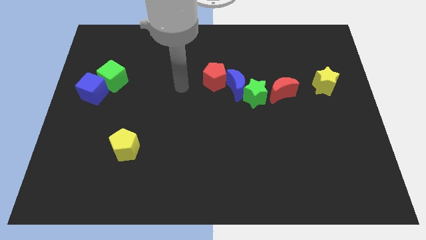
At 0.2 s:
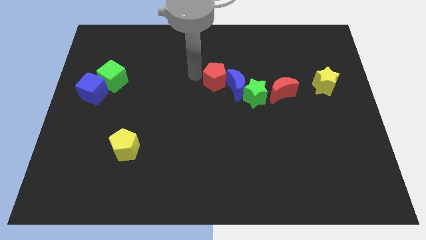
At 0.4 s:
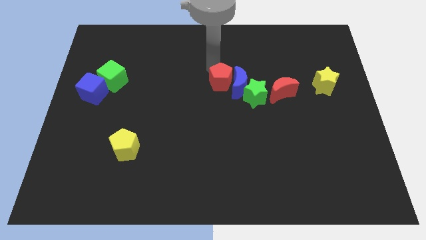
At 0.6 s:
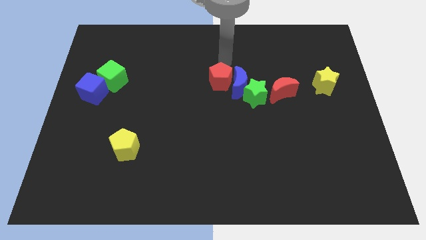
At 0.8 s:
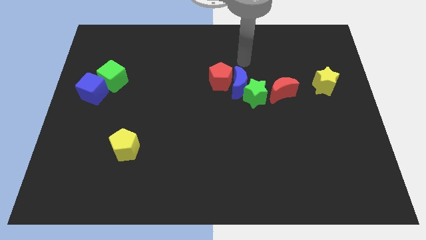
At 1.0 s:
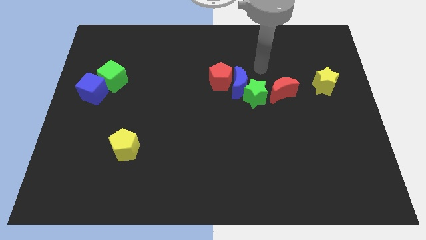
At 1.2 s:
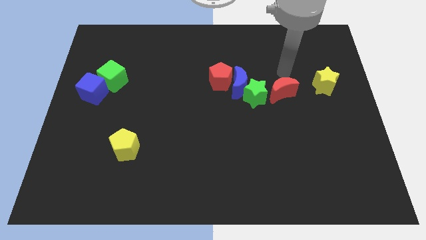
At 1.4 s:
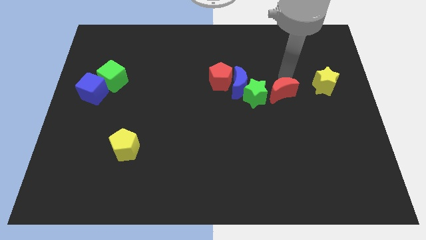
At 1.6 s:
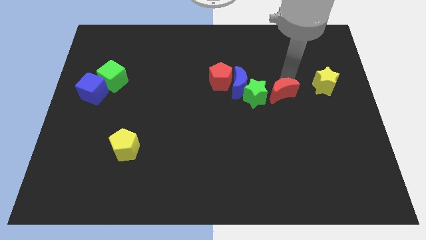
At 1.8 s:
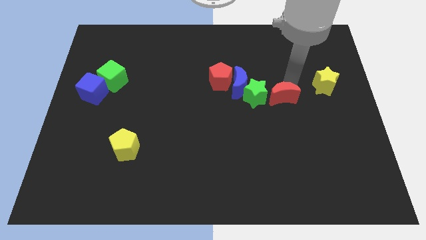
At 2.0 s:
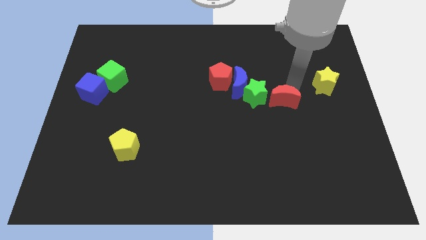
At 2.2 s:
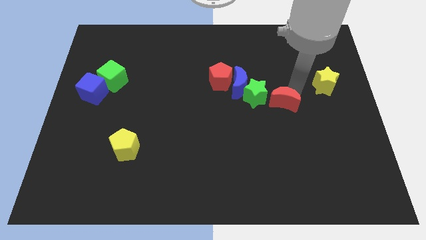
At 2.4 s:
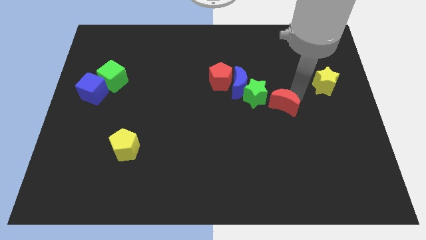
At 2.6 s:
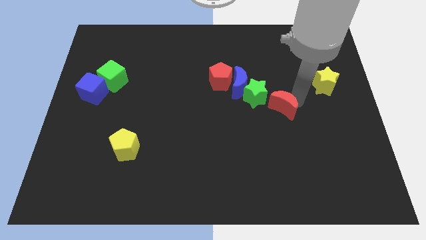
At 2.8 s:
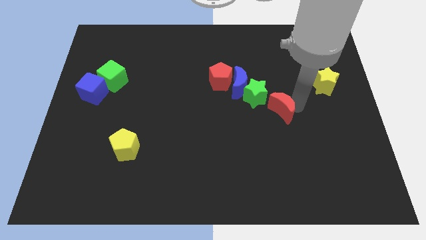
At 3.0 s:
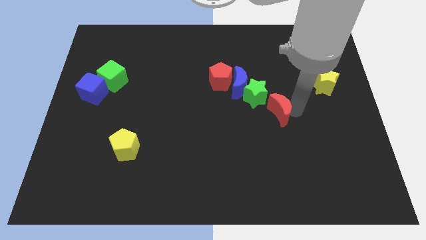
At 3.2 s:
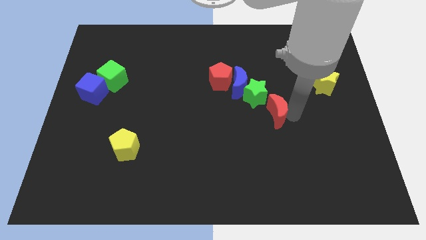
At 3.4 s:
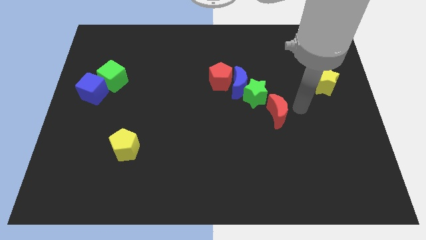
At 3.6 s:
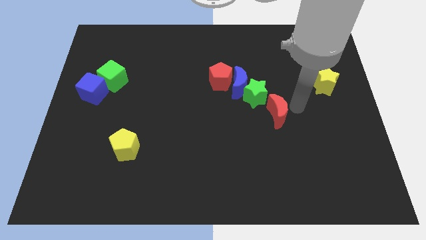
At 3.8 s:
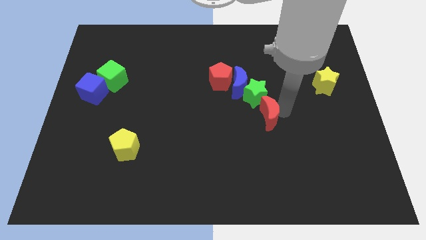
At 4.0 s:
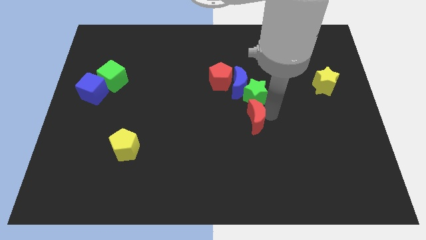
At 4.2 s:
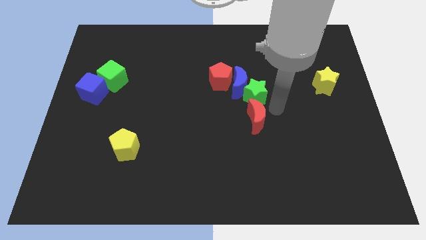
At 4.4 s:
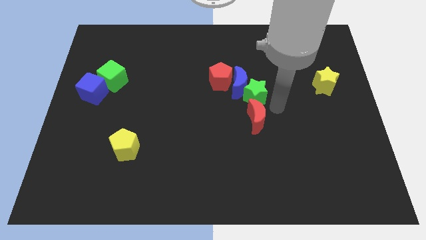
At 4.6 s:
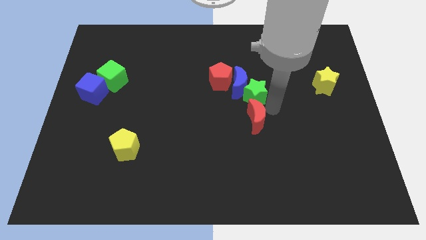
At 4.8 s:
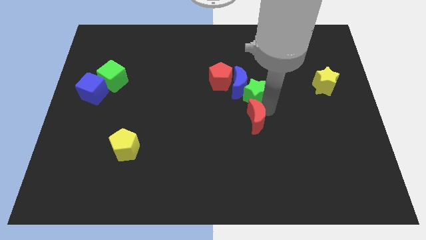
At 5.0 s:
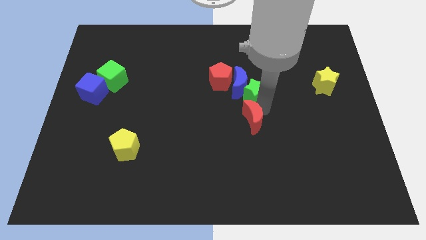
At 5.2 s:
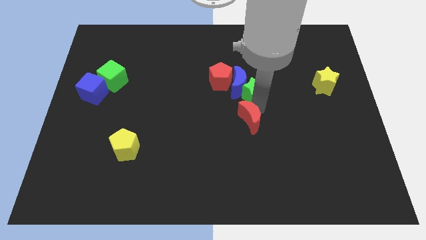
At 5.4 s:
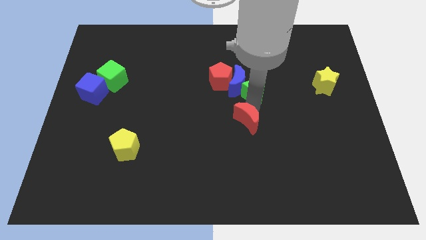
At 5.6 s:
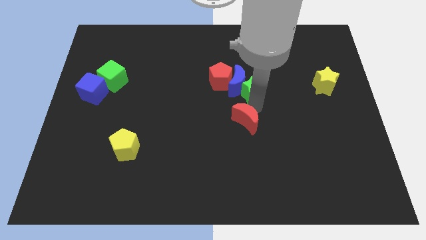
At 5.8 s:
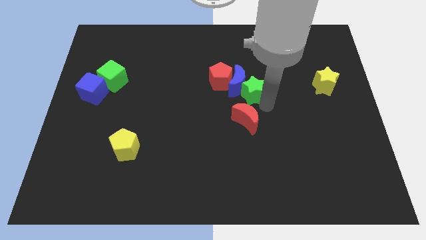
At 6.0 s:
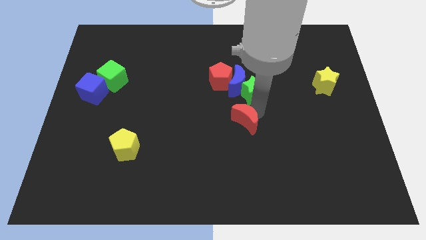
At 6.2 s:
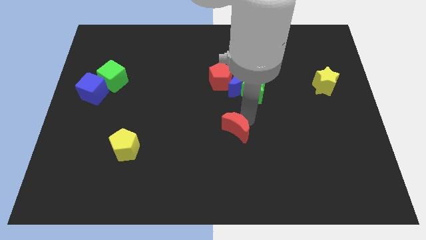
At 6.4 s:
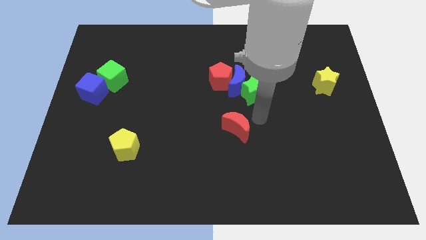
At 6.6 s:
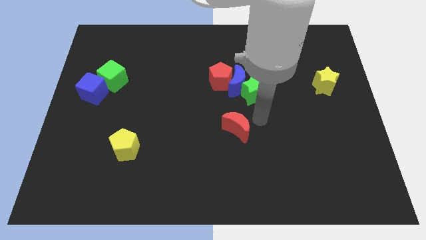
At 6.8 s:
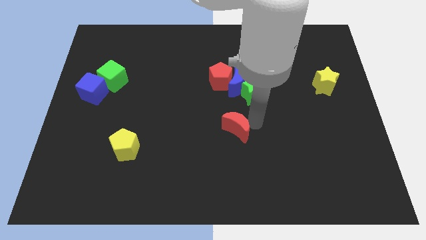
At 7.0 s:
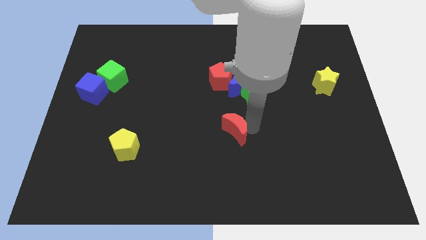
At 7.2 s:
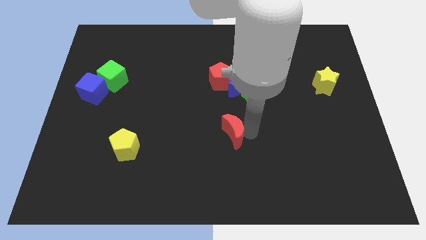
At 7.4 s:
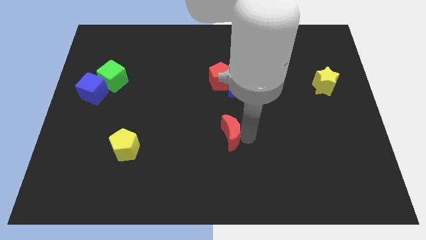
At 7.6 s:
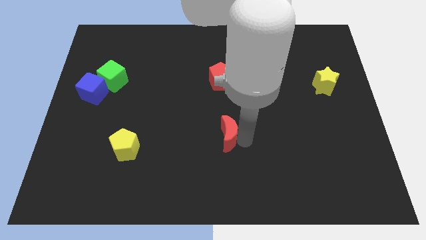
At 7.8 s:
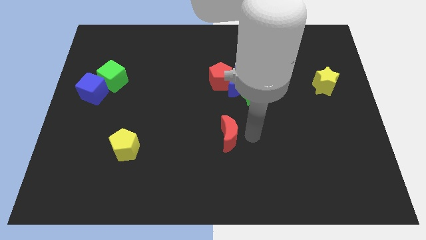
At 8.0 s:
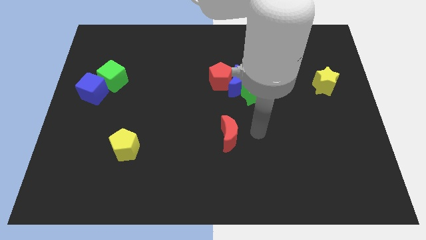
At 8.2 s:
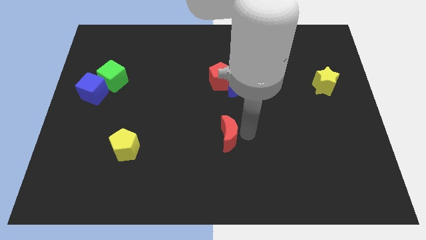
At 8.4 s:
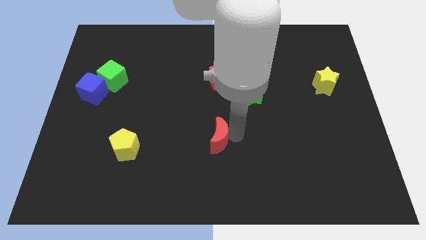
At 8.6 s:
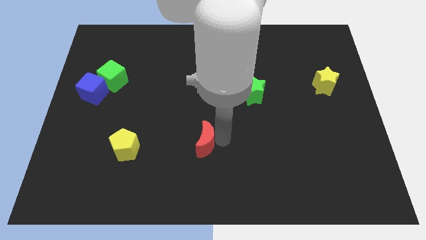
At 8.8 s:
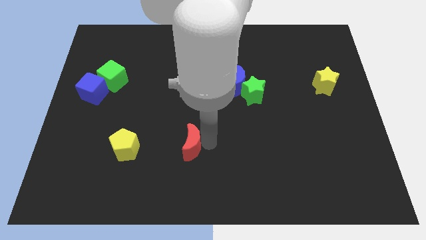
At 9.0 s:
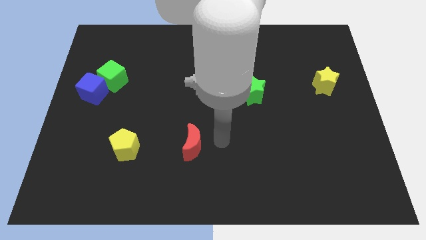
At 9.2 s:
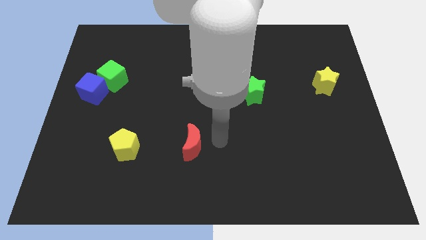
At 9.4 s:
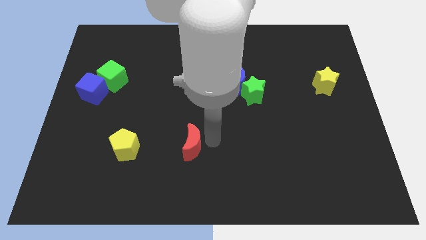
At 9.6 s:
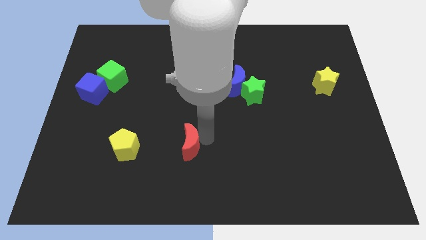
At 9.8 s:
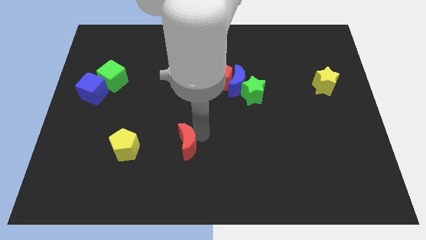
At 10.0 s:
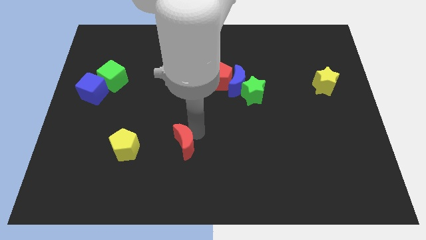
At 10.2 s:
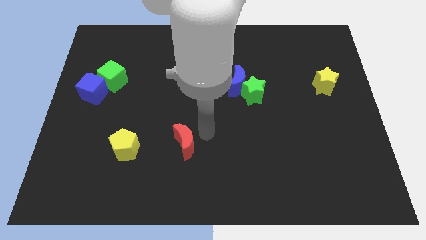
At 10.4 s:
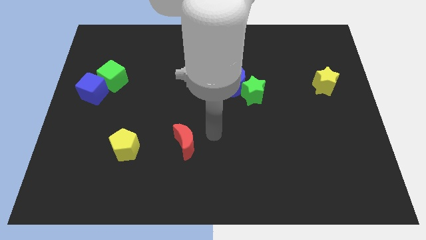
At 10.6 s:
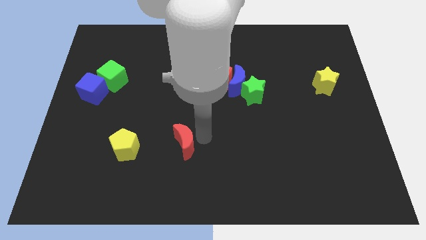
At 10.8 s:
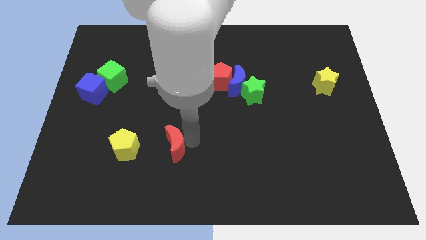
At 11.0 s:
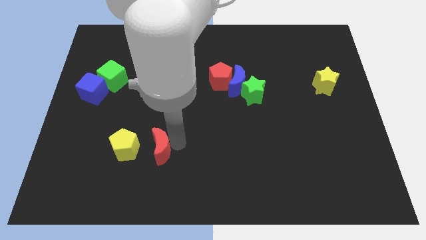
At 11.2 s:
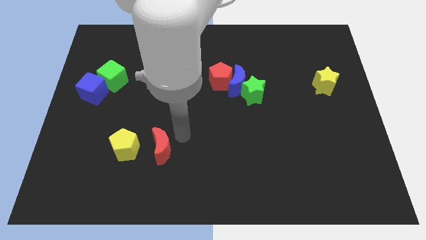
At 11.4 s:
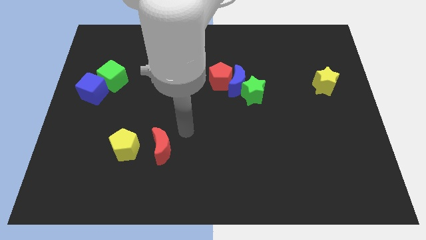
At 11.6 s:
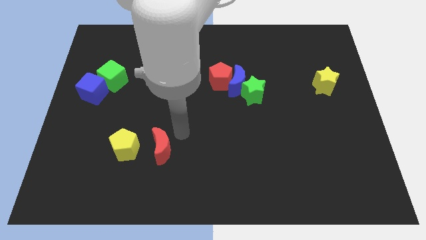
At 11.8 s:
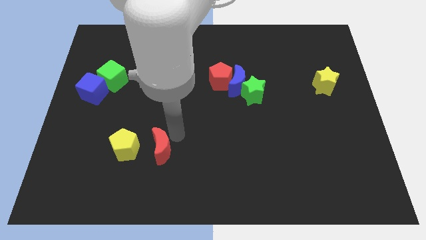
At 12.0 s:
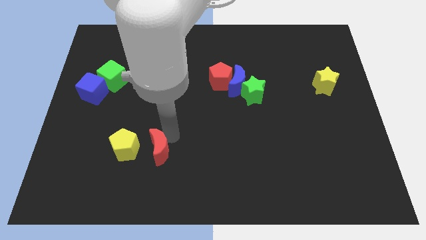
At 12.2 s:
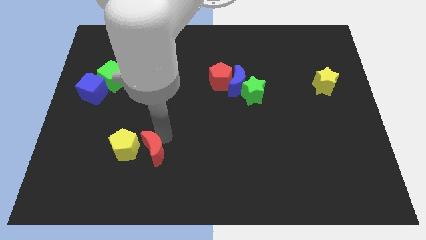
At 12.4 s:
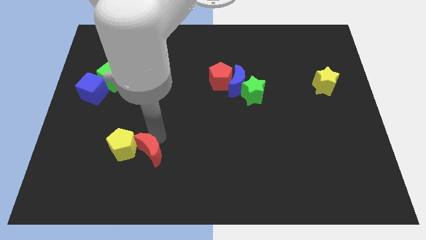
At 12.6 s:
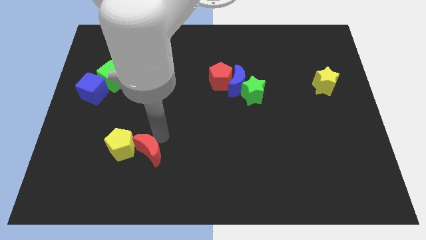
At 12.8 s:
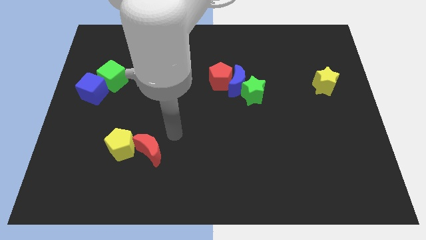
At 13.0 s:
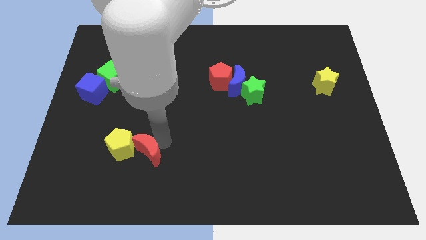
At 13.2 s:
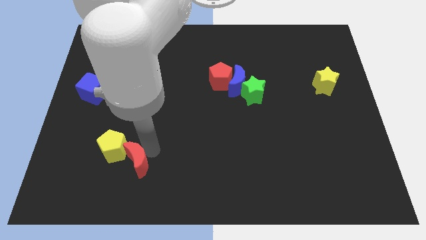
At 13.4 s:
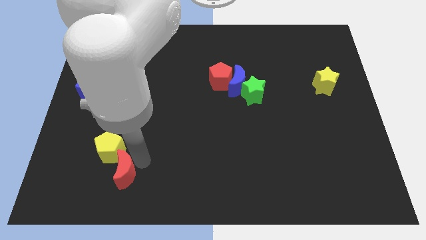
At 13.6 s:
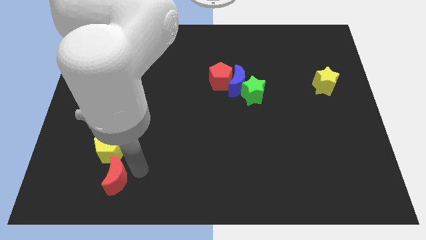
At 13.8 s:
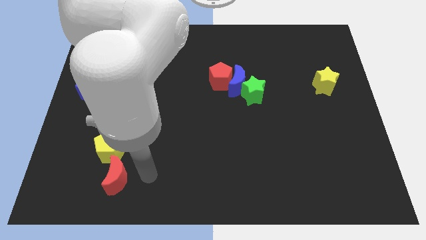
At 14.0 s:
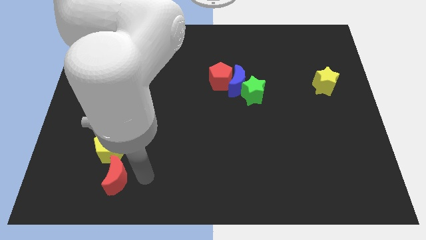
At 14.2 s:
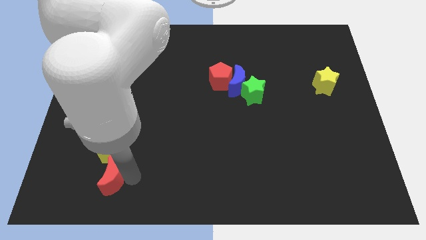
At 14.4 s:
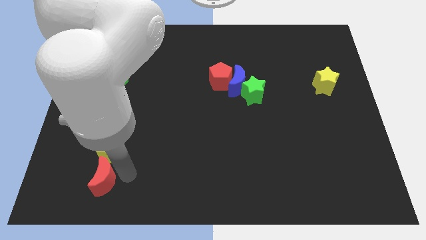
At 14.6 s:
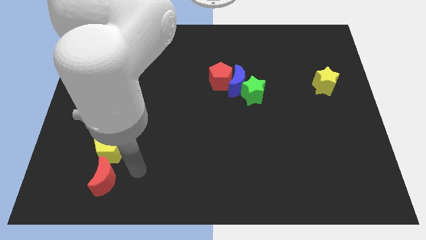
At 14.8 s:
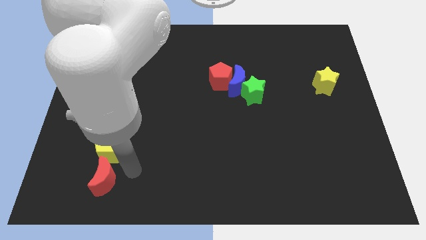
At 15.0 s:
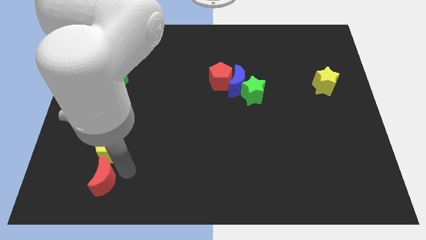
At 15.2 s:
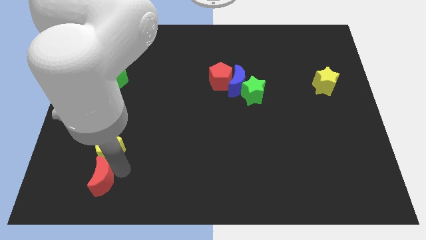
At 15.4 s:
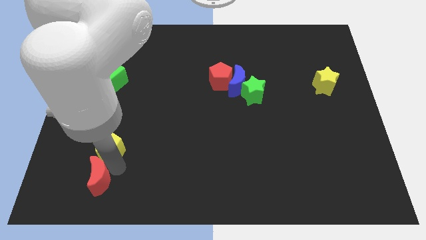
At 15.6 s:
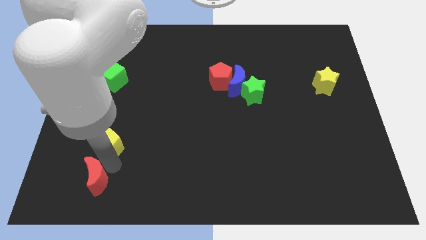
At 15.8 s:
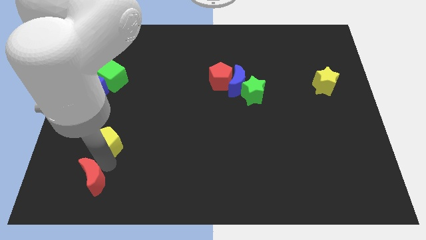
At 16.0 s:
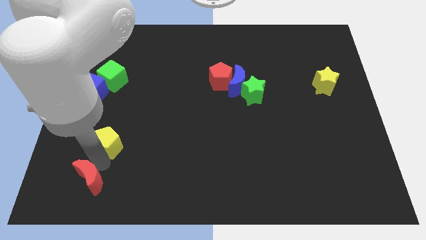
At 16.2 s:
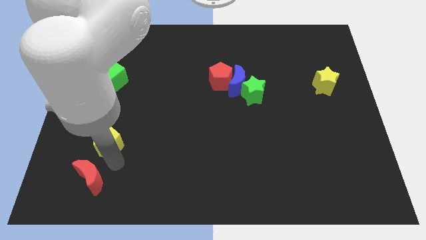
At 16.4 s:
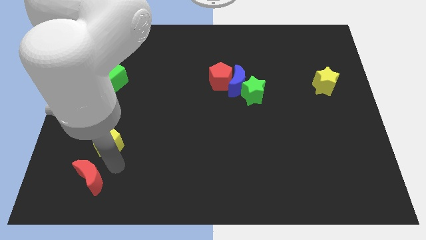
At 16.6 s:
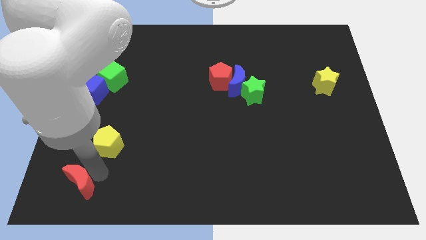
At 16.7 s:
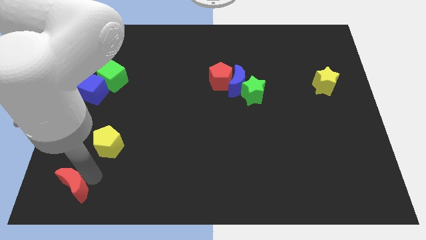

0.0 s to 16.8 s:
push the red moon to the lower left corner
